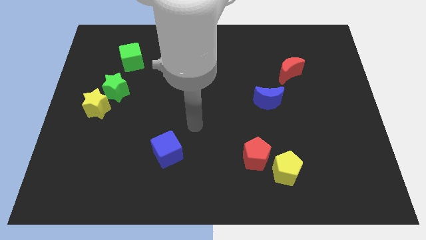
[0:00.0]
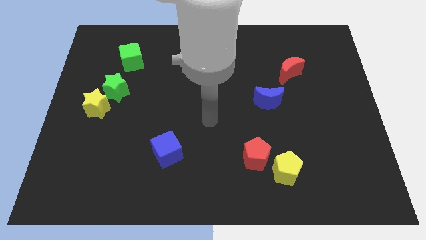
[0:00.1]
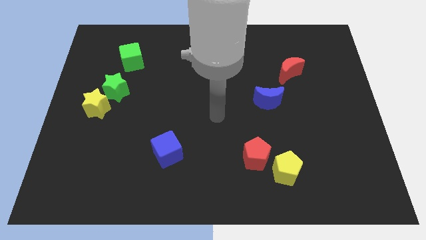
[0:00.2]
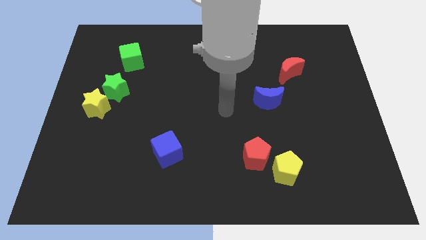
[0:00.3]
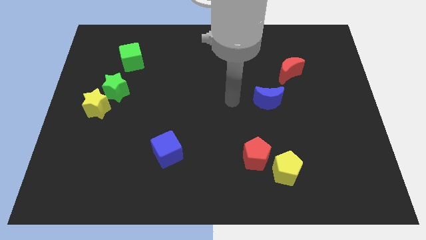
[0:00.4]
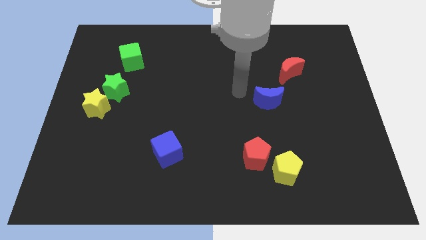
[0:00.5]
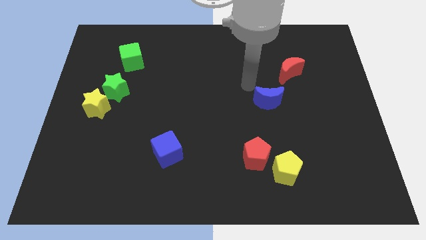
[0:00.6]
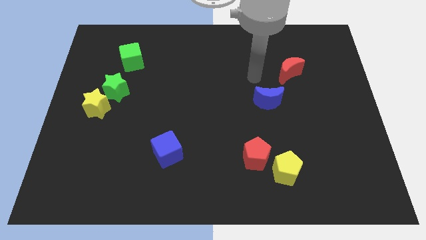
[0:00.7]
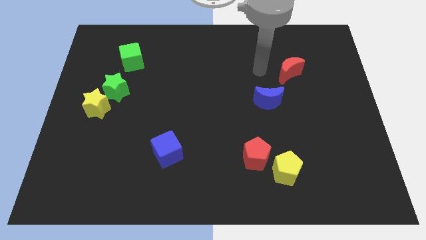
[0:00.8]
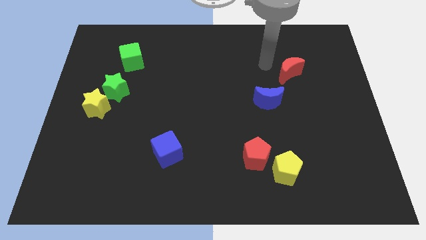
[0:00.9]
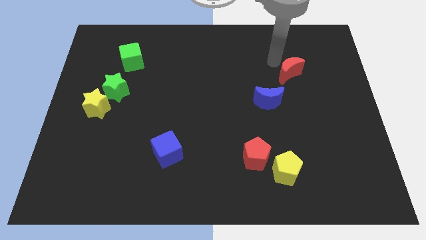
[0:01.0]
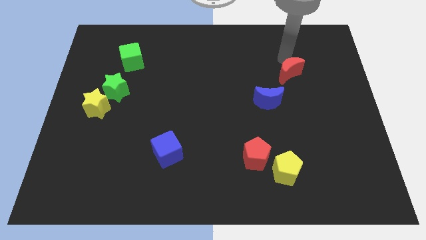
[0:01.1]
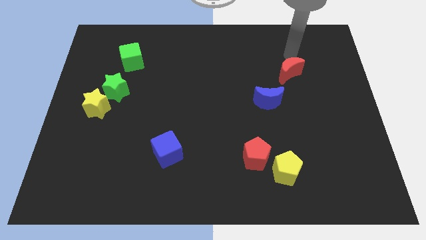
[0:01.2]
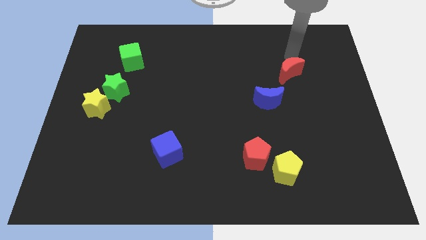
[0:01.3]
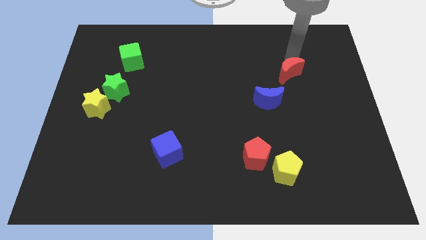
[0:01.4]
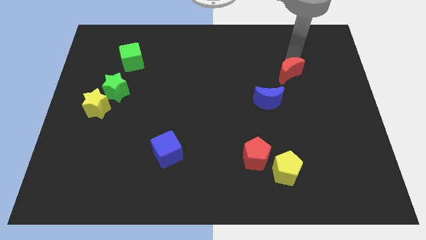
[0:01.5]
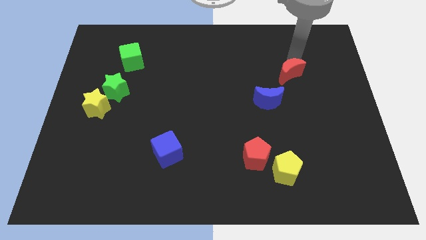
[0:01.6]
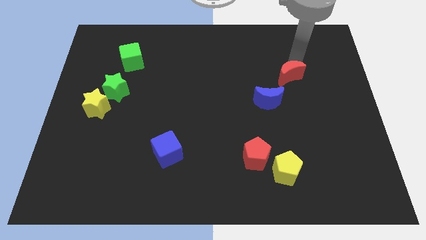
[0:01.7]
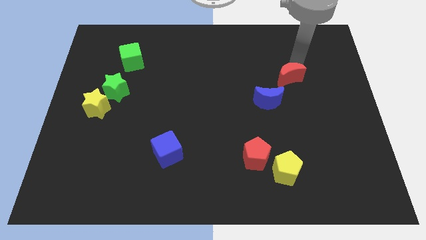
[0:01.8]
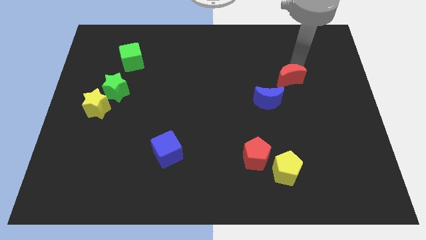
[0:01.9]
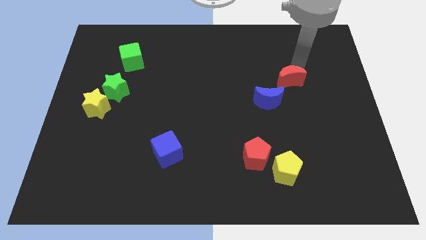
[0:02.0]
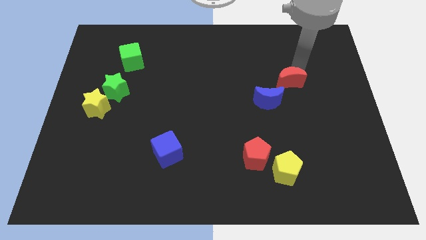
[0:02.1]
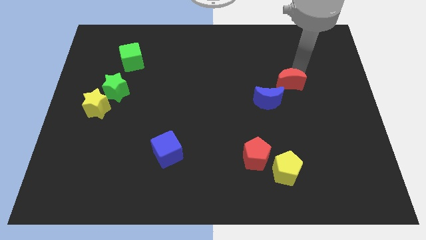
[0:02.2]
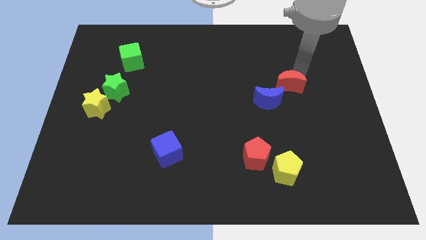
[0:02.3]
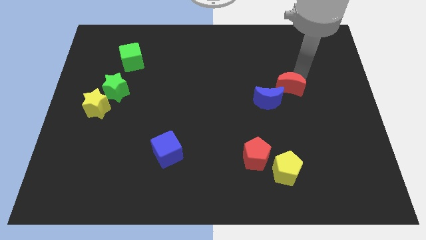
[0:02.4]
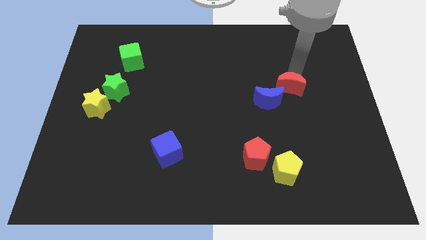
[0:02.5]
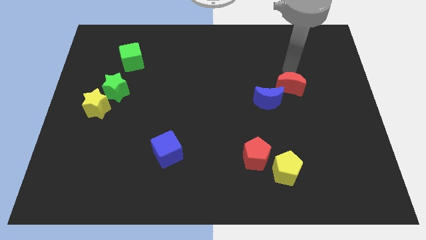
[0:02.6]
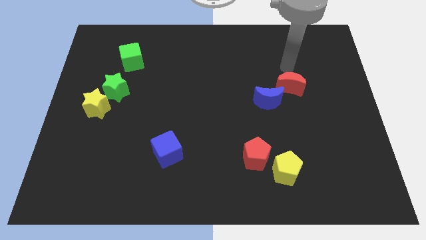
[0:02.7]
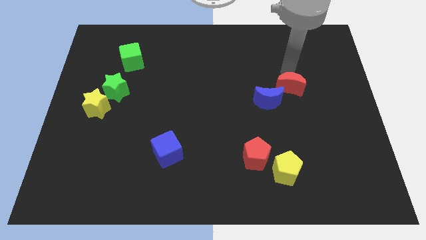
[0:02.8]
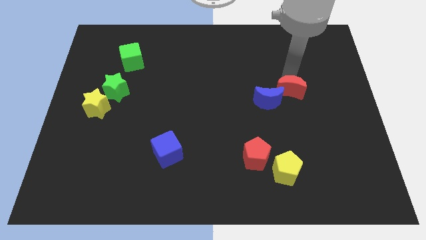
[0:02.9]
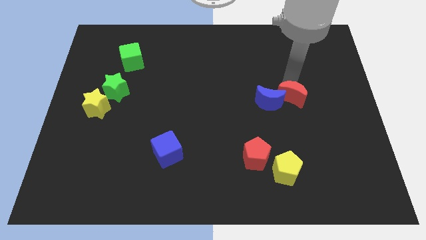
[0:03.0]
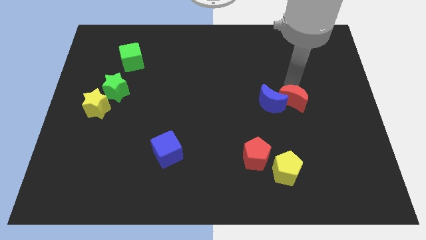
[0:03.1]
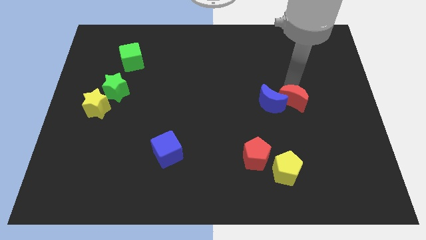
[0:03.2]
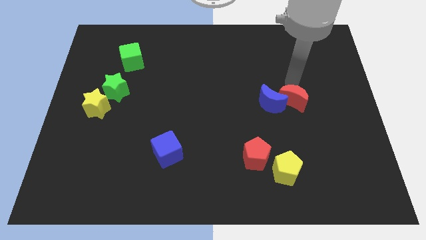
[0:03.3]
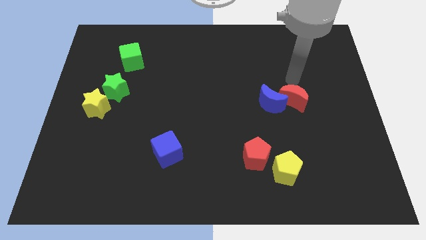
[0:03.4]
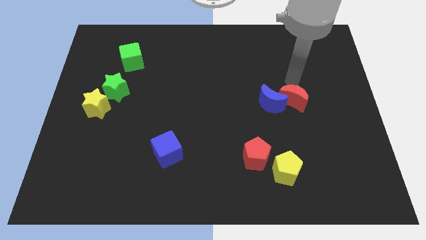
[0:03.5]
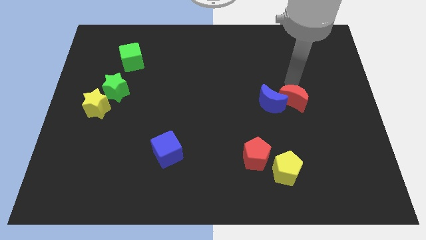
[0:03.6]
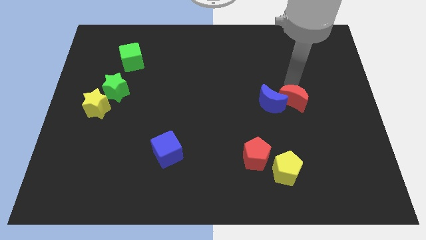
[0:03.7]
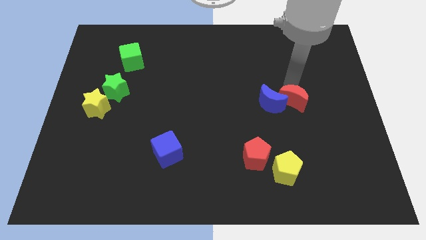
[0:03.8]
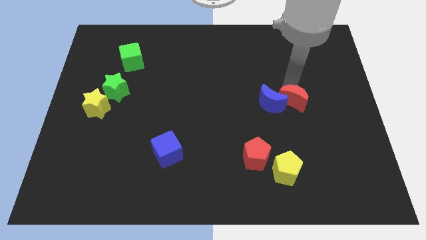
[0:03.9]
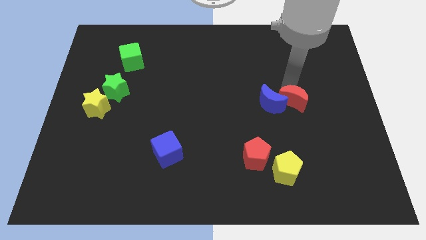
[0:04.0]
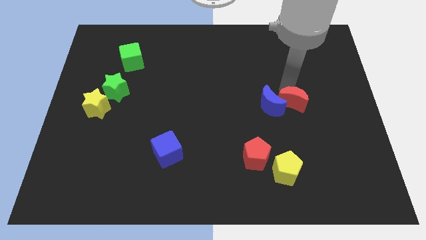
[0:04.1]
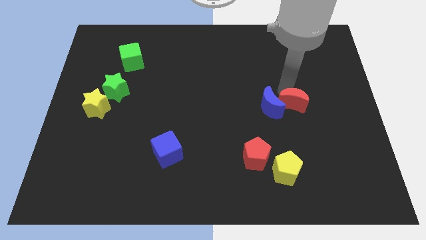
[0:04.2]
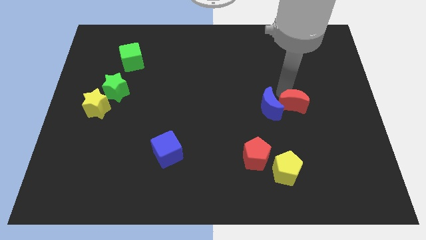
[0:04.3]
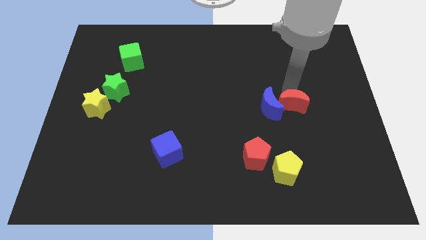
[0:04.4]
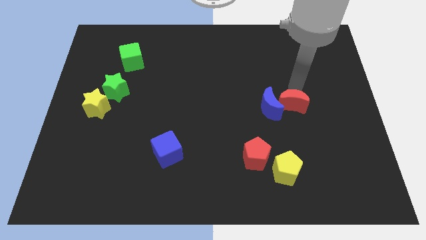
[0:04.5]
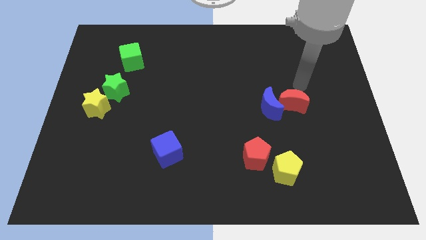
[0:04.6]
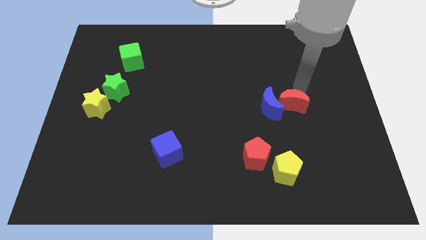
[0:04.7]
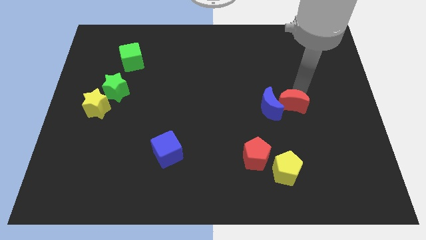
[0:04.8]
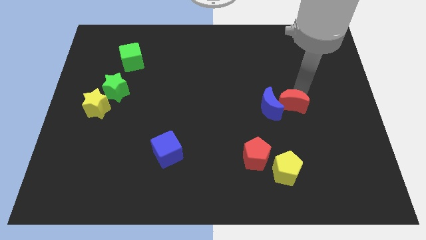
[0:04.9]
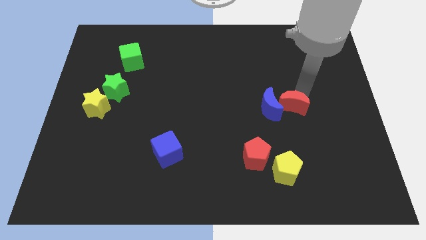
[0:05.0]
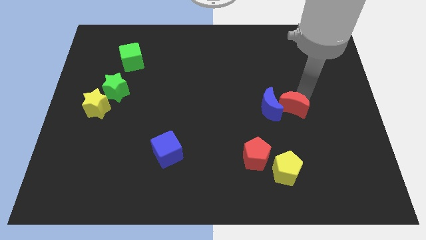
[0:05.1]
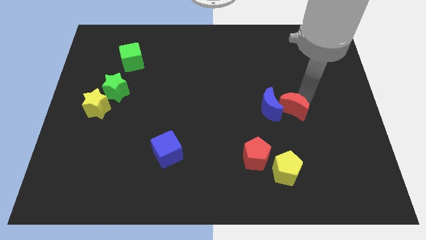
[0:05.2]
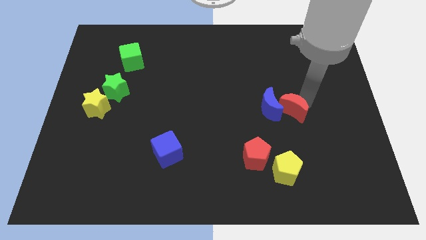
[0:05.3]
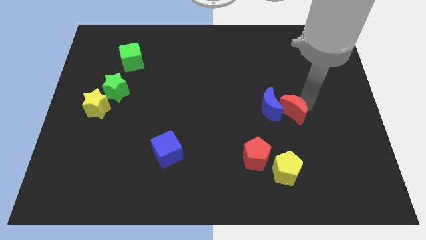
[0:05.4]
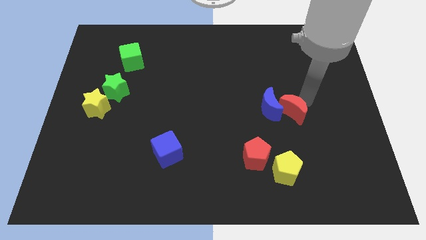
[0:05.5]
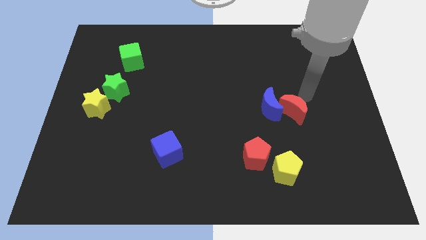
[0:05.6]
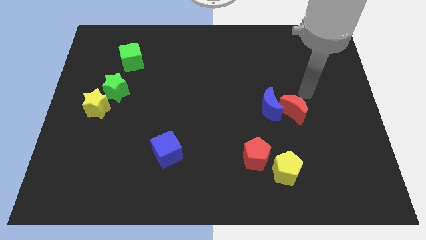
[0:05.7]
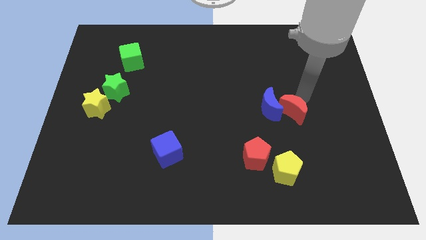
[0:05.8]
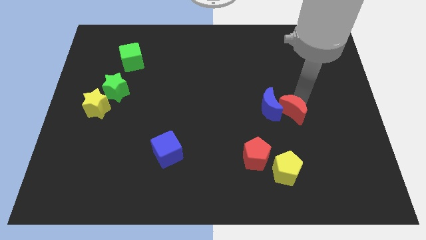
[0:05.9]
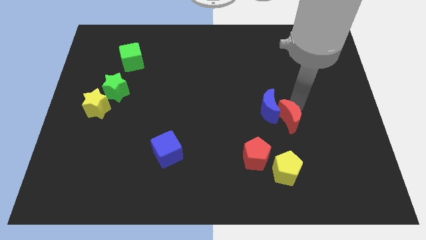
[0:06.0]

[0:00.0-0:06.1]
slide the red moon to the top side of the yellow pentagon

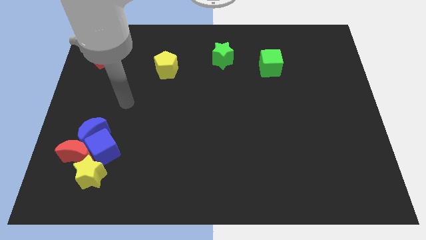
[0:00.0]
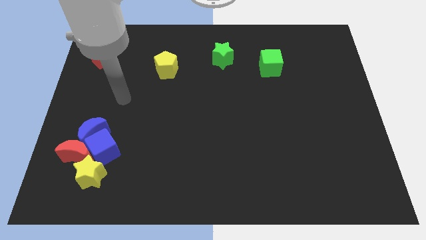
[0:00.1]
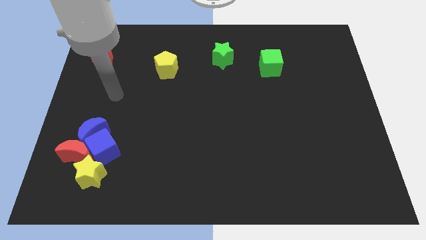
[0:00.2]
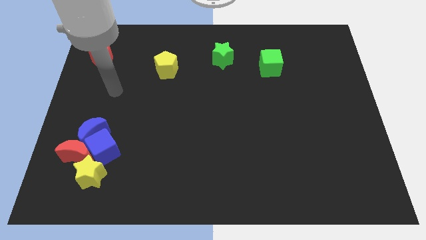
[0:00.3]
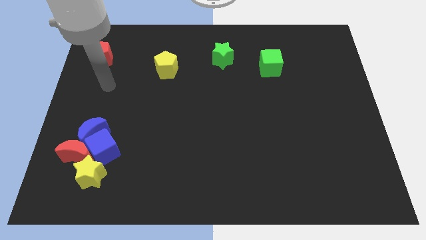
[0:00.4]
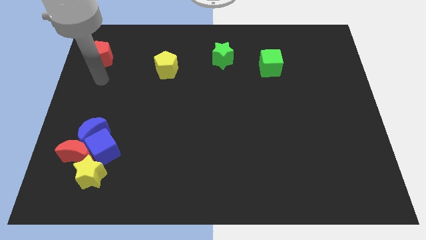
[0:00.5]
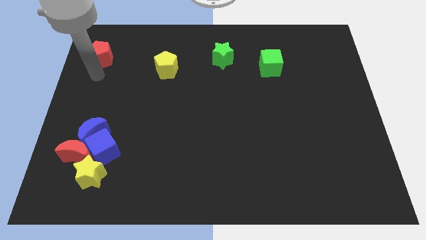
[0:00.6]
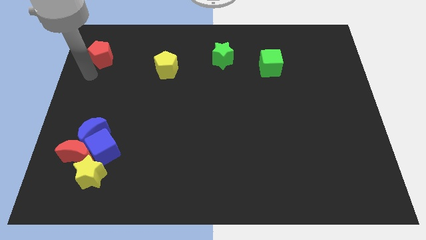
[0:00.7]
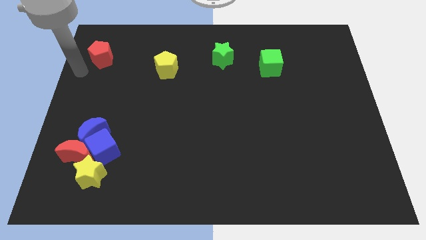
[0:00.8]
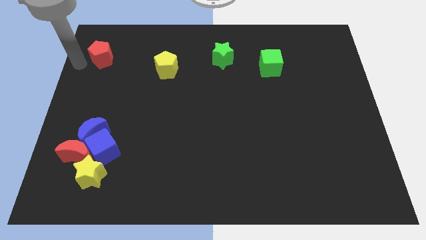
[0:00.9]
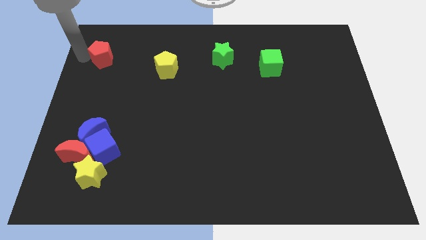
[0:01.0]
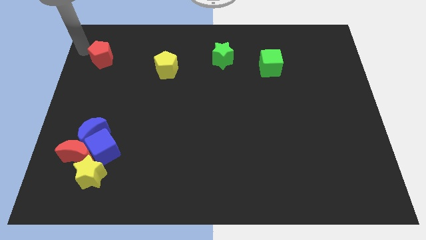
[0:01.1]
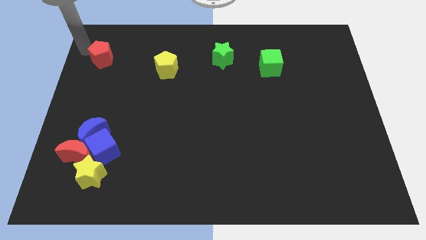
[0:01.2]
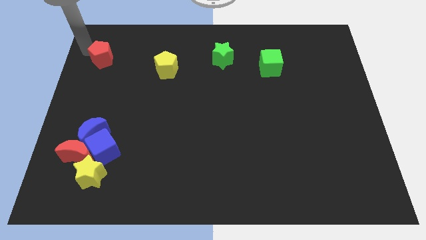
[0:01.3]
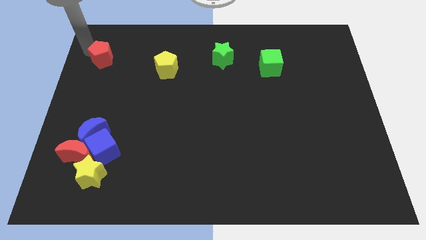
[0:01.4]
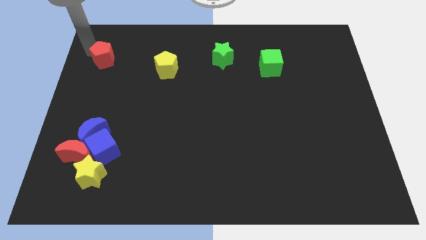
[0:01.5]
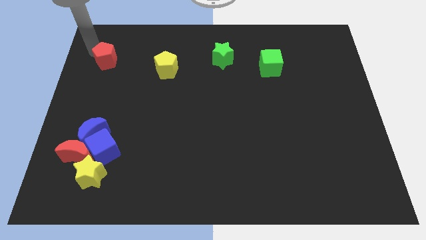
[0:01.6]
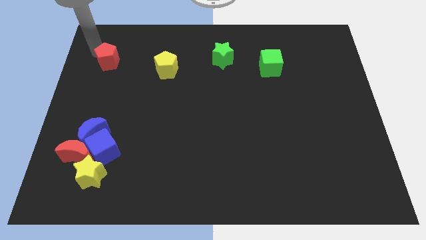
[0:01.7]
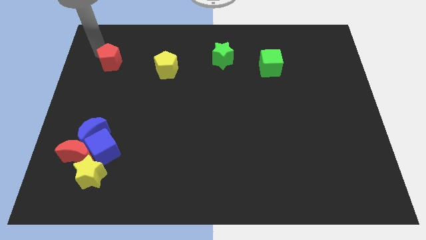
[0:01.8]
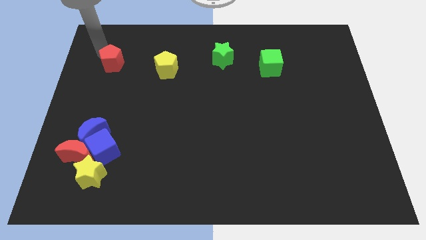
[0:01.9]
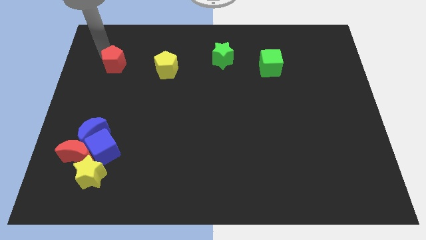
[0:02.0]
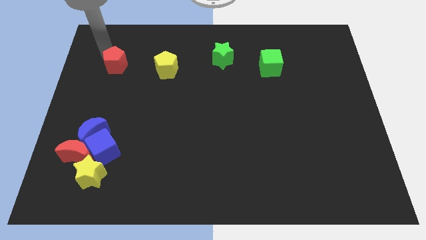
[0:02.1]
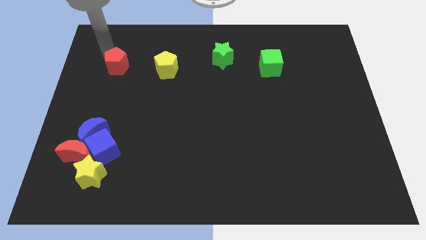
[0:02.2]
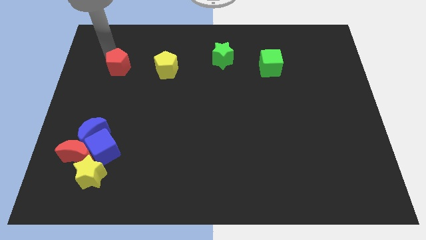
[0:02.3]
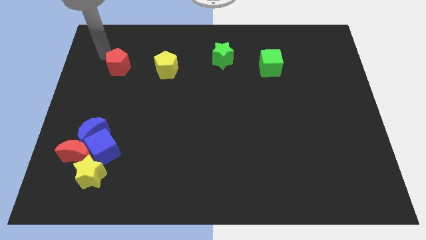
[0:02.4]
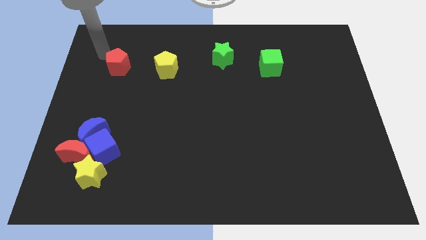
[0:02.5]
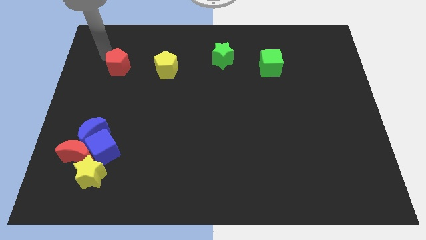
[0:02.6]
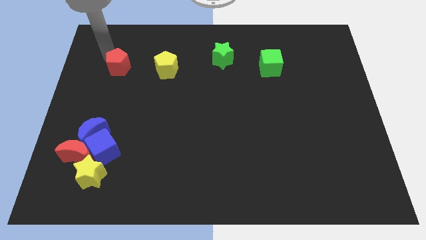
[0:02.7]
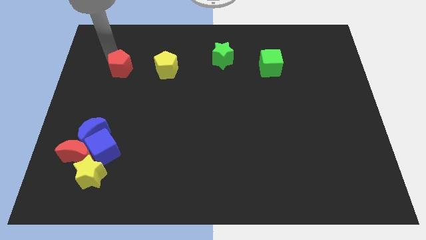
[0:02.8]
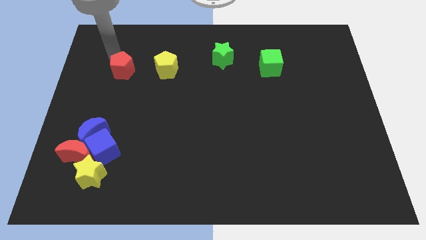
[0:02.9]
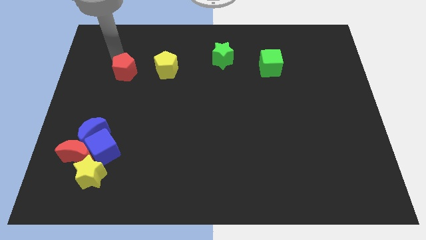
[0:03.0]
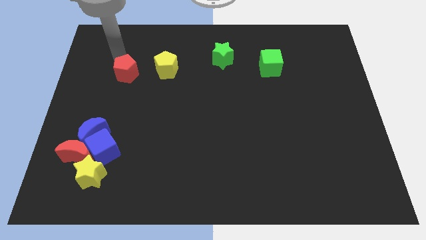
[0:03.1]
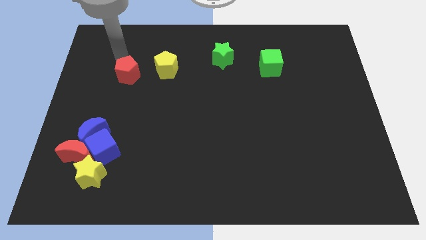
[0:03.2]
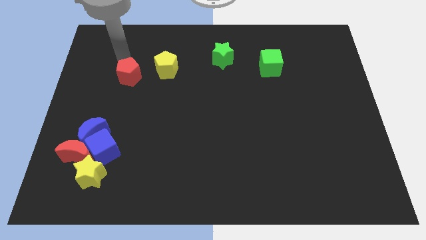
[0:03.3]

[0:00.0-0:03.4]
slide the red pentagon to the bottom left of the yellow pentagon
